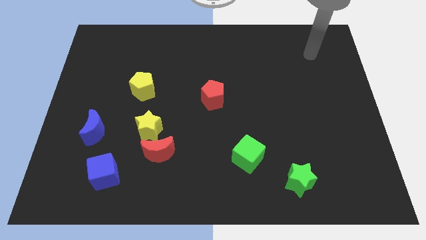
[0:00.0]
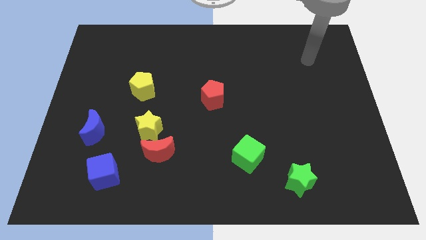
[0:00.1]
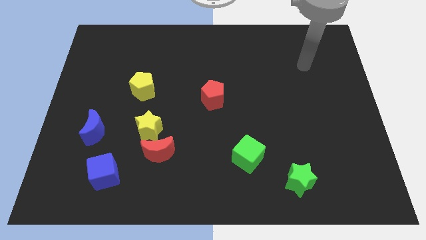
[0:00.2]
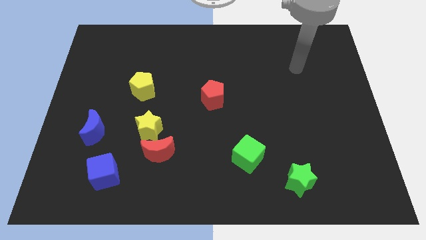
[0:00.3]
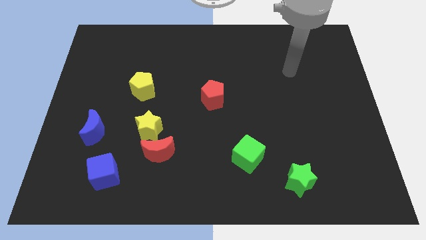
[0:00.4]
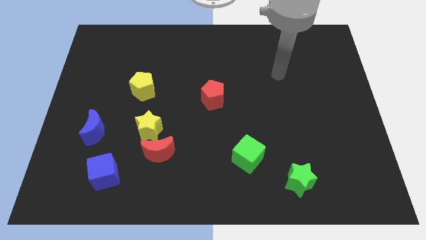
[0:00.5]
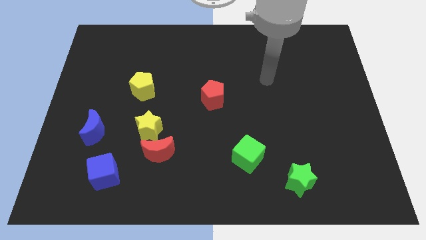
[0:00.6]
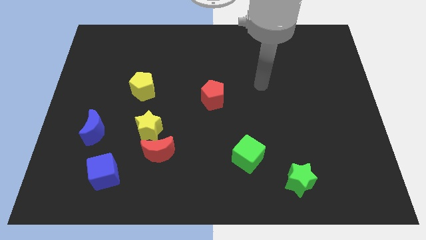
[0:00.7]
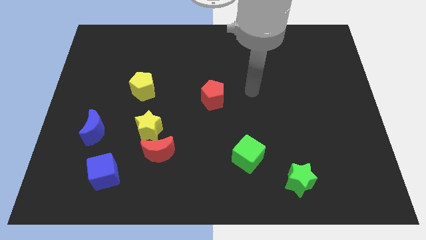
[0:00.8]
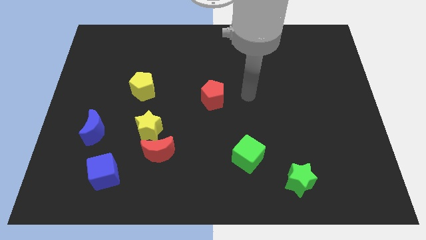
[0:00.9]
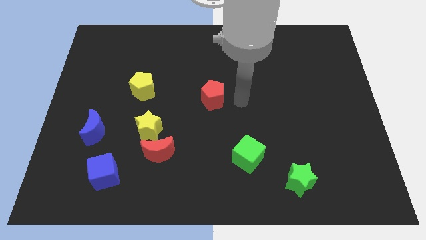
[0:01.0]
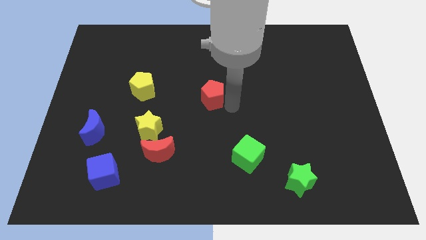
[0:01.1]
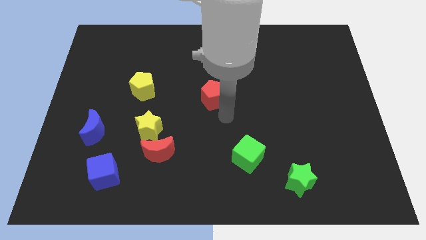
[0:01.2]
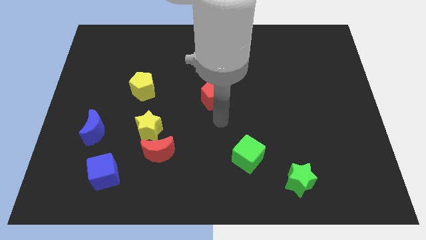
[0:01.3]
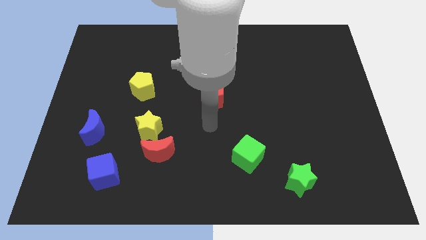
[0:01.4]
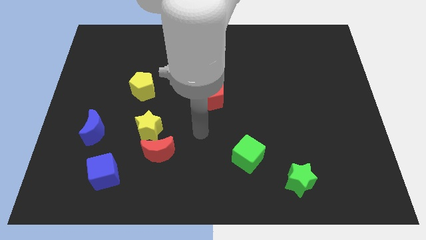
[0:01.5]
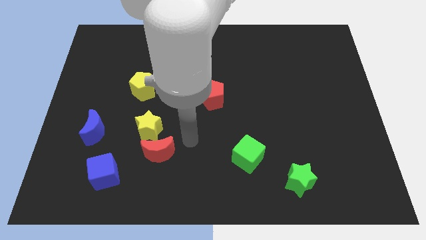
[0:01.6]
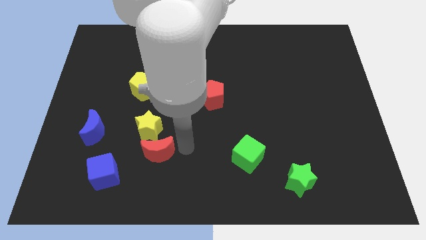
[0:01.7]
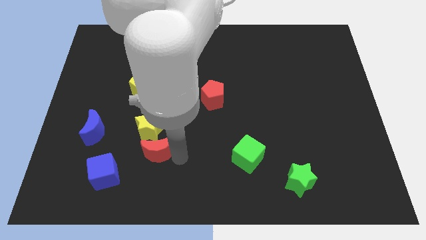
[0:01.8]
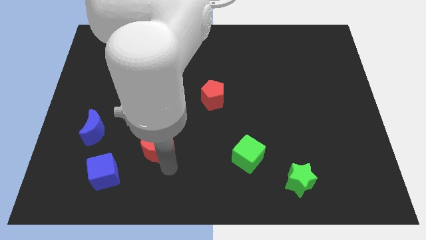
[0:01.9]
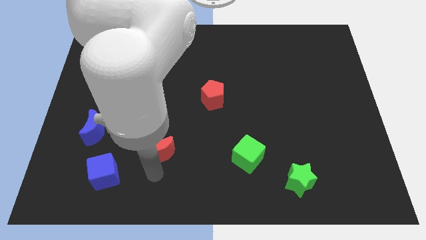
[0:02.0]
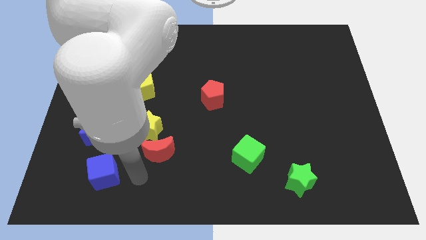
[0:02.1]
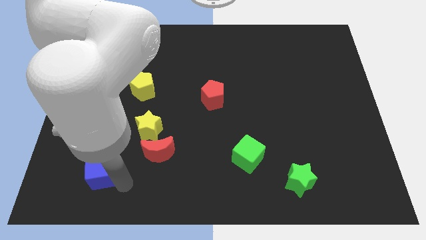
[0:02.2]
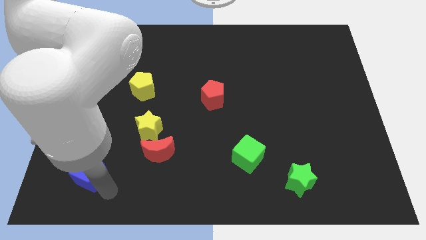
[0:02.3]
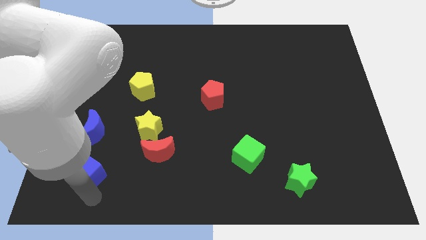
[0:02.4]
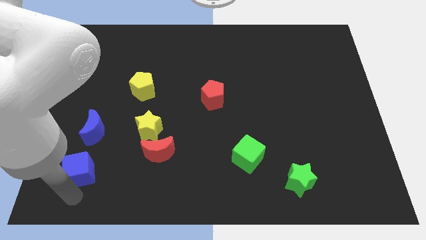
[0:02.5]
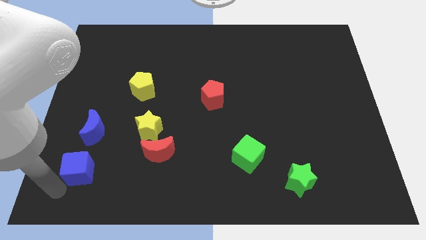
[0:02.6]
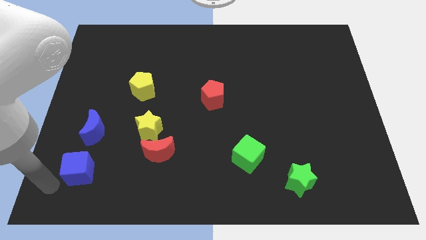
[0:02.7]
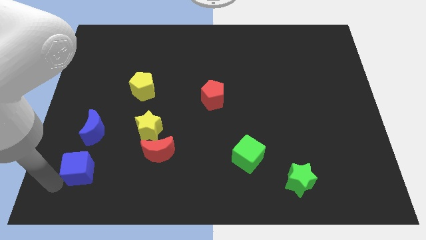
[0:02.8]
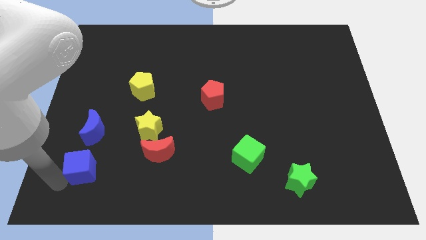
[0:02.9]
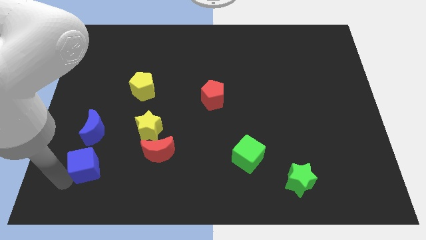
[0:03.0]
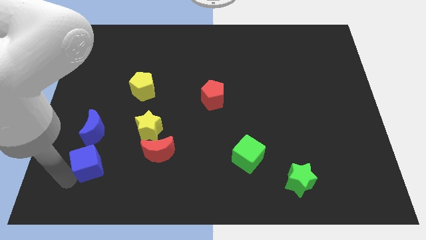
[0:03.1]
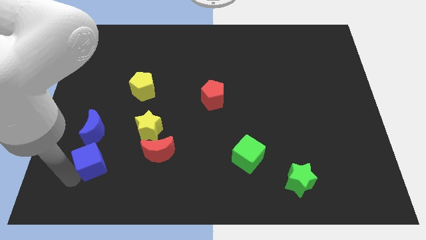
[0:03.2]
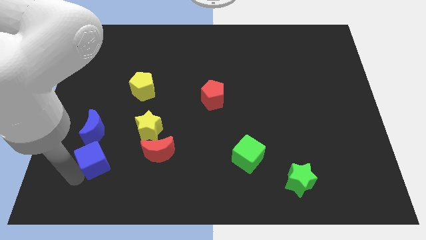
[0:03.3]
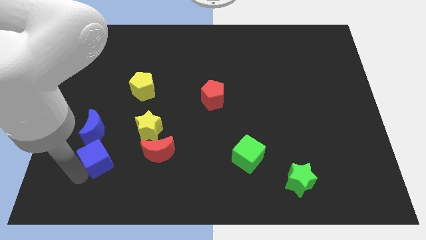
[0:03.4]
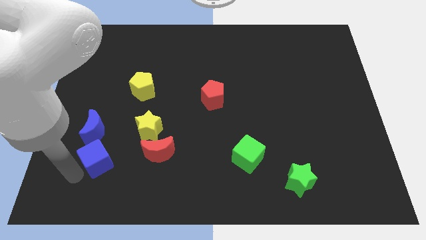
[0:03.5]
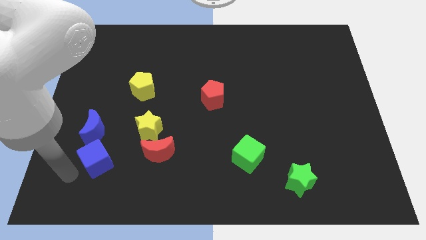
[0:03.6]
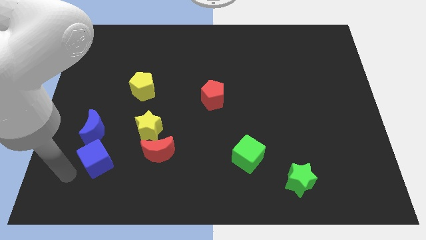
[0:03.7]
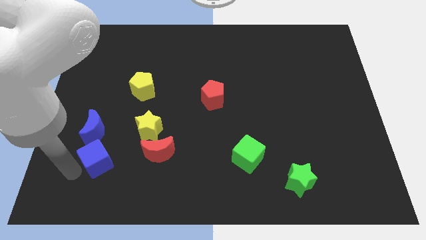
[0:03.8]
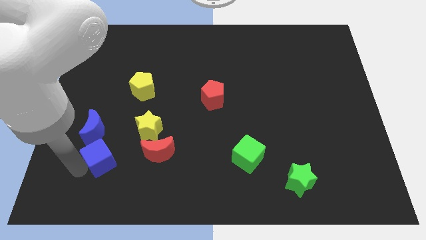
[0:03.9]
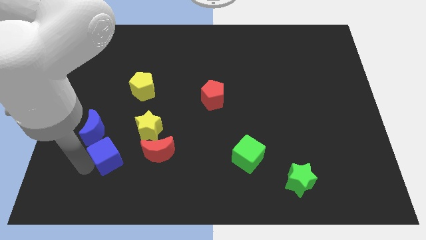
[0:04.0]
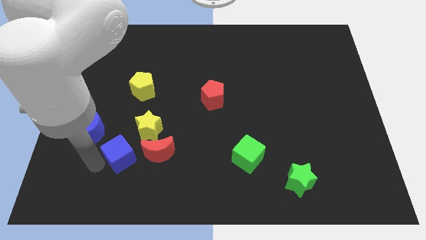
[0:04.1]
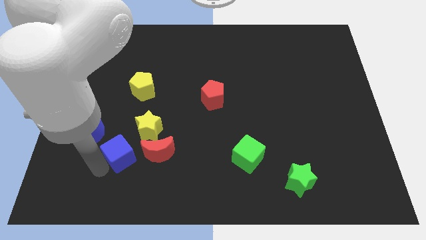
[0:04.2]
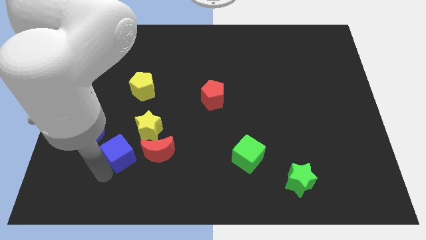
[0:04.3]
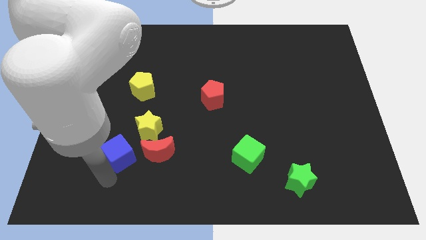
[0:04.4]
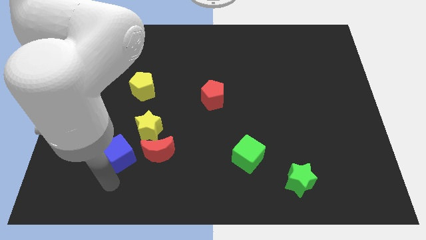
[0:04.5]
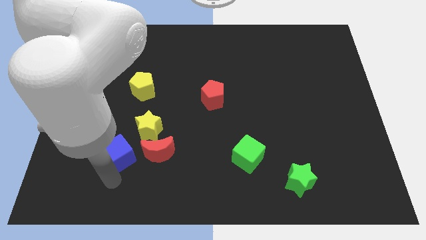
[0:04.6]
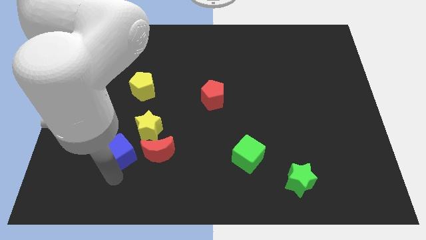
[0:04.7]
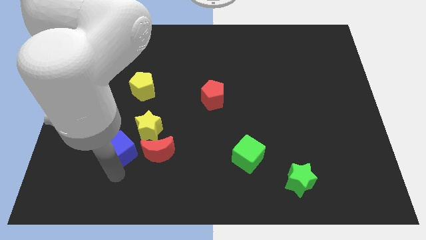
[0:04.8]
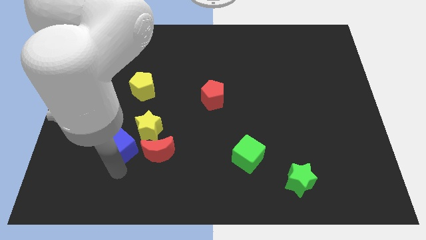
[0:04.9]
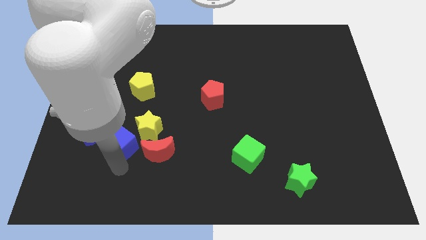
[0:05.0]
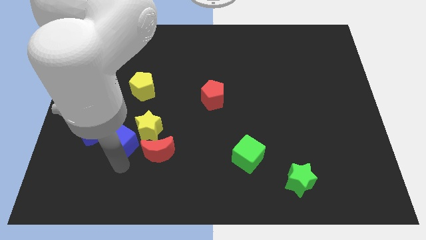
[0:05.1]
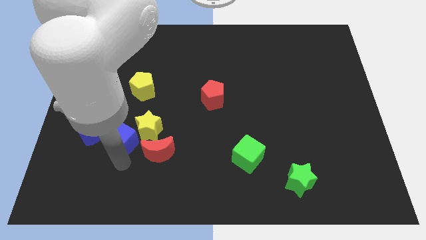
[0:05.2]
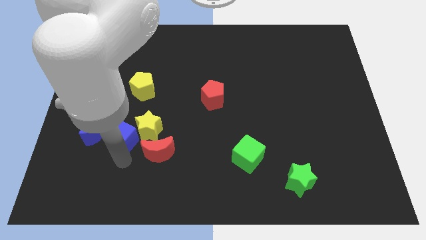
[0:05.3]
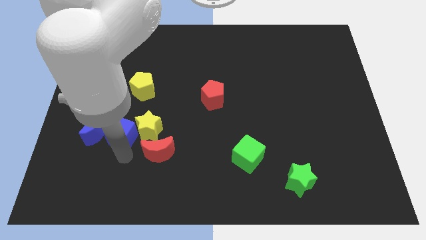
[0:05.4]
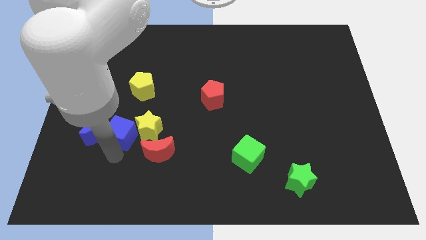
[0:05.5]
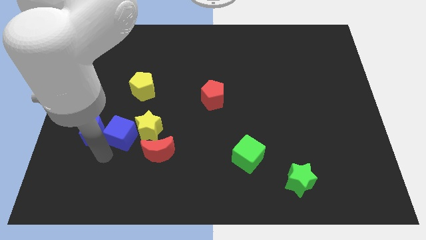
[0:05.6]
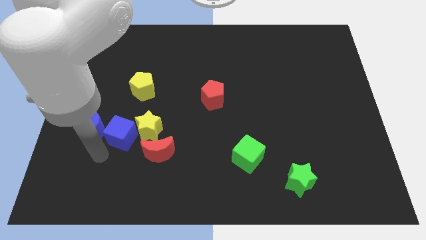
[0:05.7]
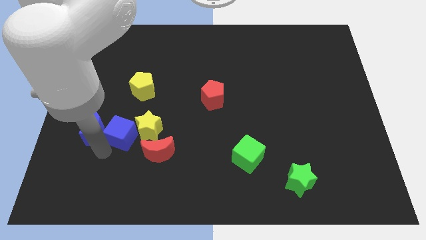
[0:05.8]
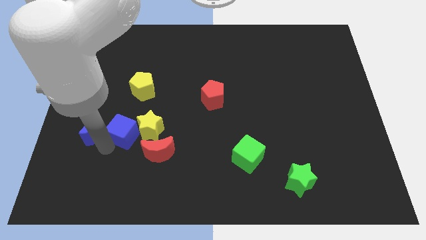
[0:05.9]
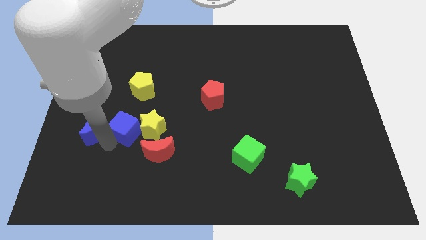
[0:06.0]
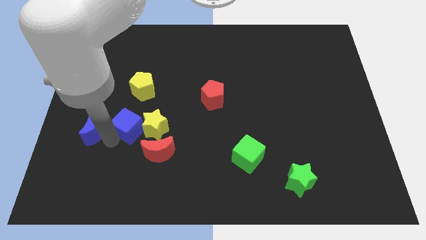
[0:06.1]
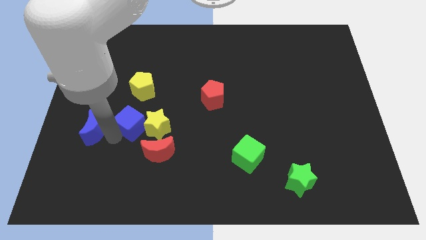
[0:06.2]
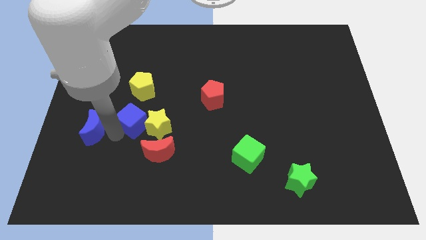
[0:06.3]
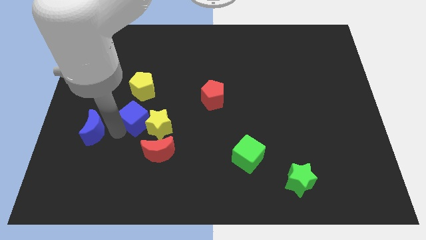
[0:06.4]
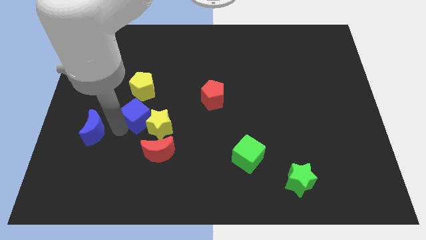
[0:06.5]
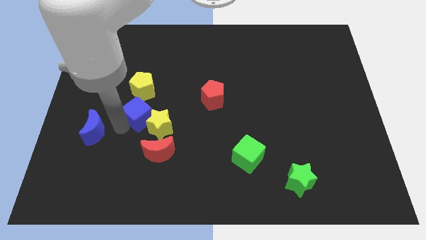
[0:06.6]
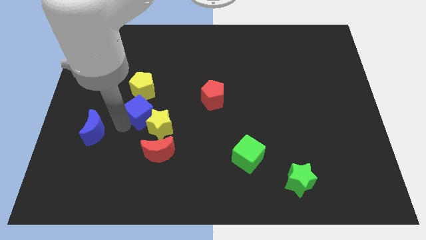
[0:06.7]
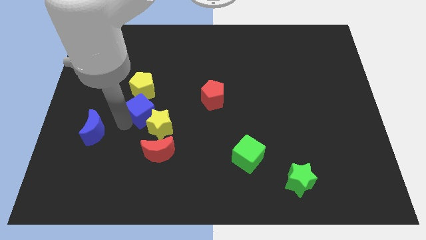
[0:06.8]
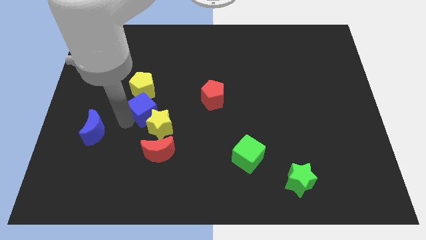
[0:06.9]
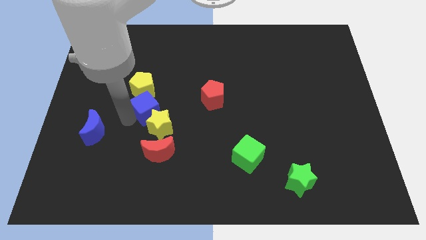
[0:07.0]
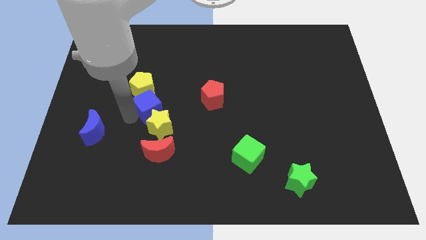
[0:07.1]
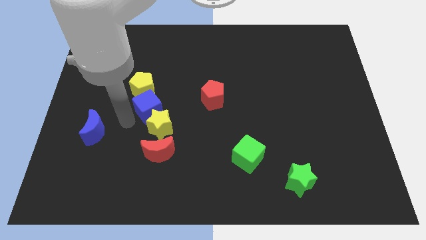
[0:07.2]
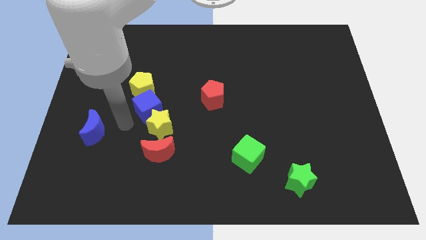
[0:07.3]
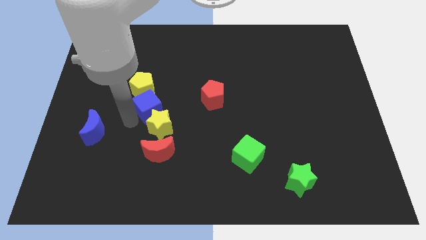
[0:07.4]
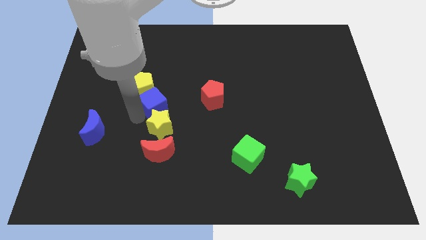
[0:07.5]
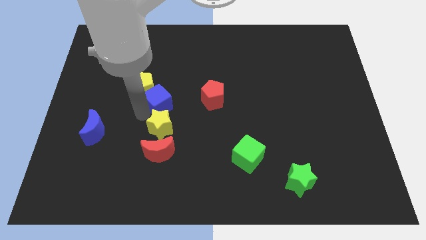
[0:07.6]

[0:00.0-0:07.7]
push the blue cube to the right side of the yellow pentagon

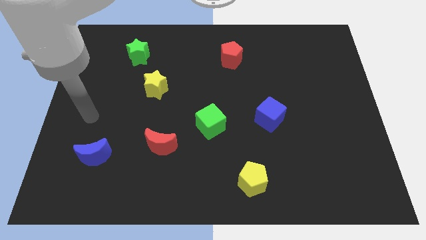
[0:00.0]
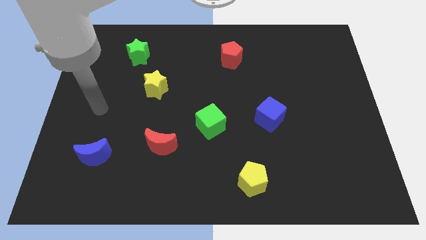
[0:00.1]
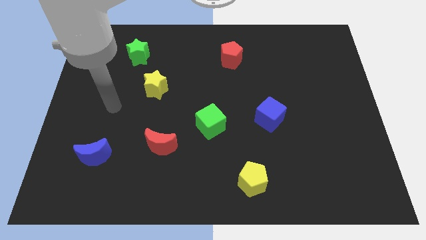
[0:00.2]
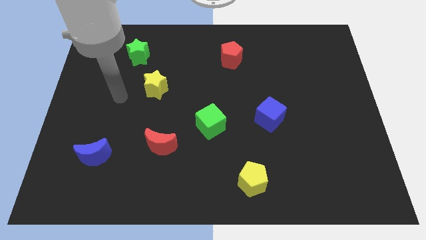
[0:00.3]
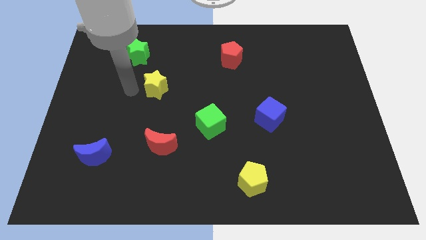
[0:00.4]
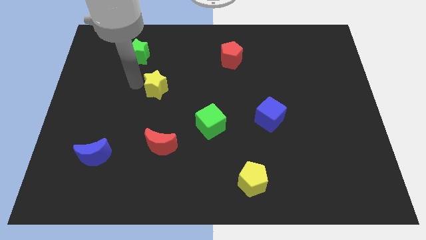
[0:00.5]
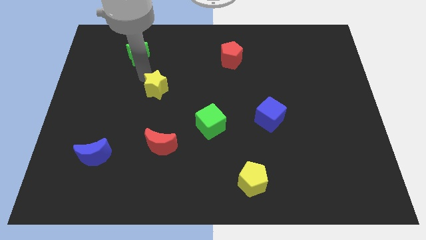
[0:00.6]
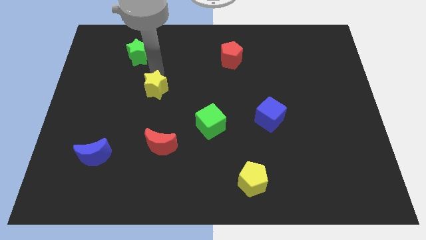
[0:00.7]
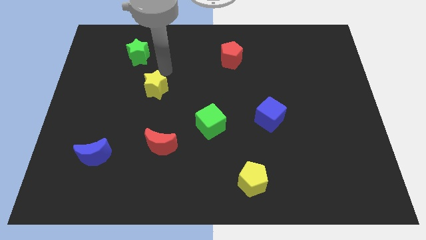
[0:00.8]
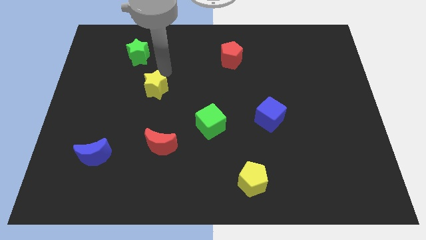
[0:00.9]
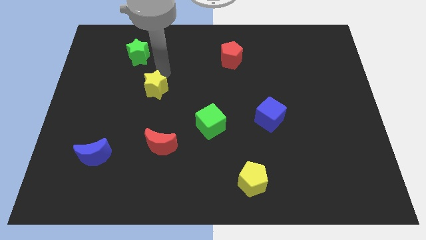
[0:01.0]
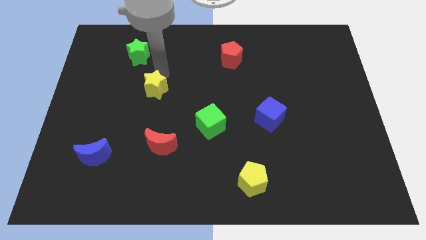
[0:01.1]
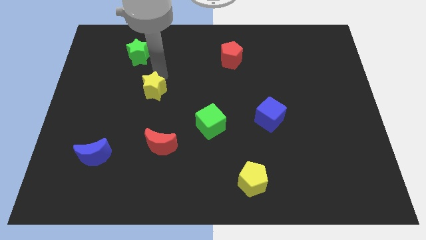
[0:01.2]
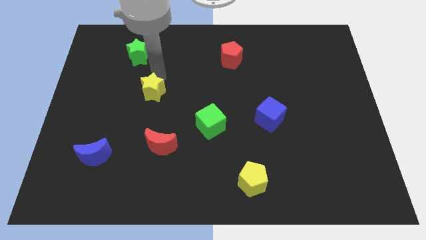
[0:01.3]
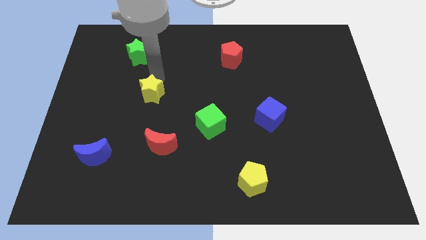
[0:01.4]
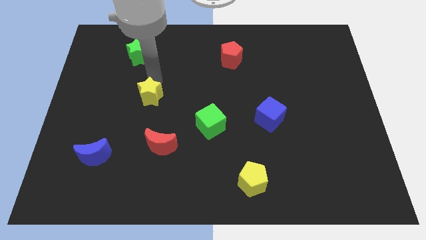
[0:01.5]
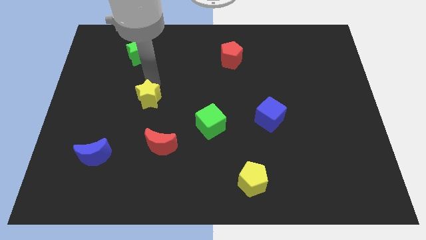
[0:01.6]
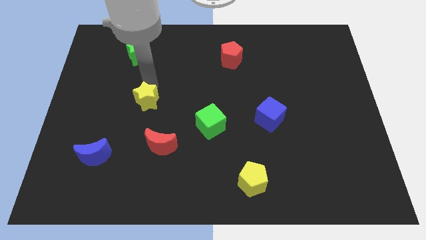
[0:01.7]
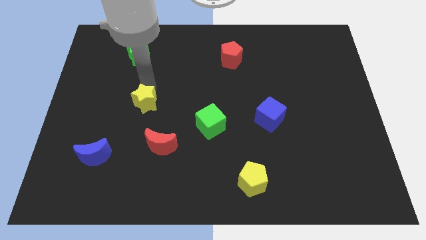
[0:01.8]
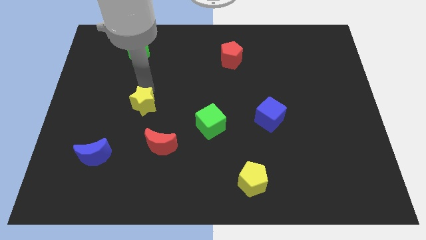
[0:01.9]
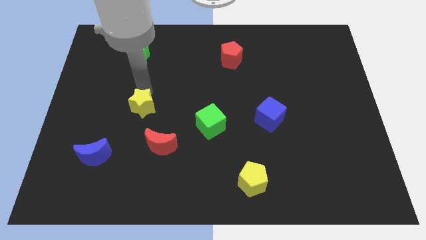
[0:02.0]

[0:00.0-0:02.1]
push the yellow star diagonally up and to the left of the red moon
